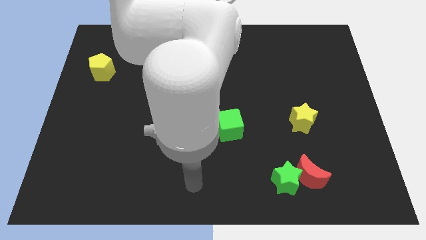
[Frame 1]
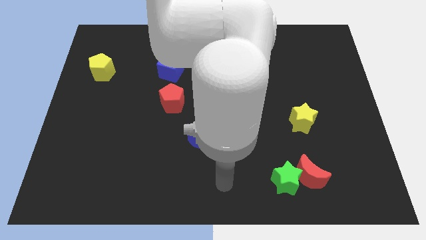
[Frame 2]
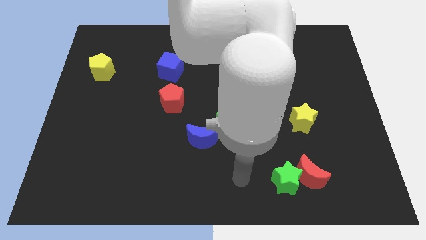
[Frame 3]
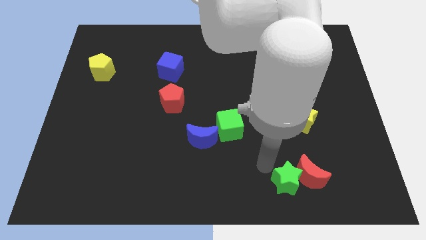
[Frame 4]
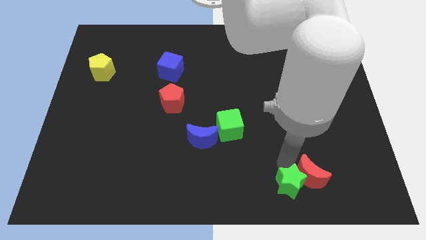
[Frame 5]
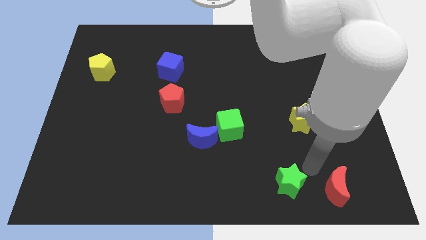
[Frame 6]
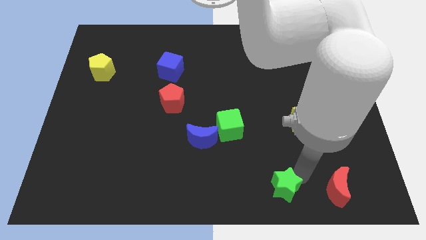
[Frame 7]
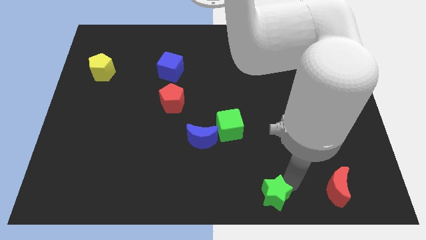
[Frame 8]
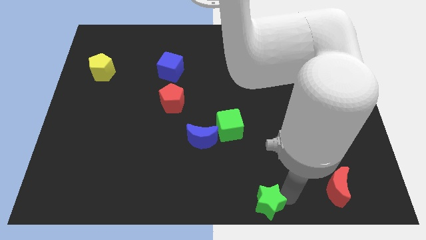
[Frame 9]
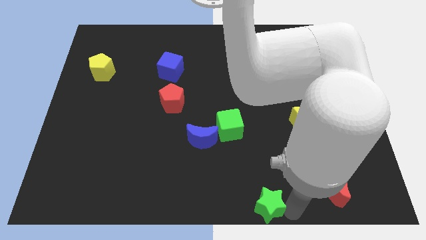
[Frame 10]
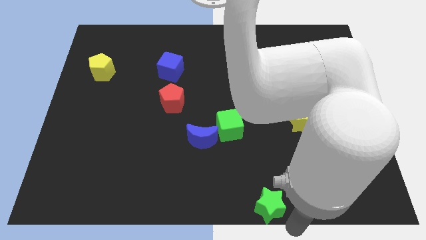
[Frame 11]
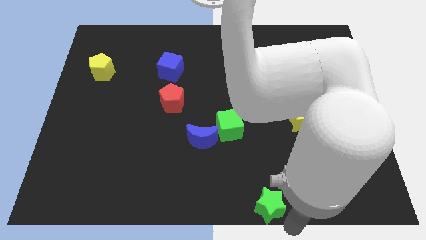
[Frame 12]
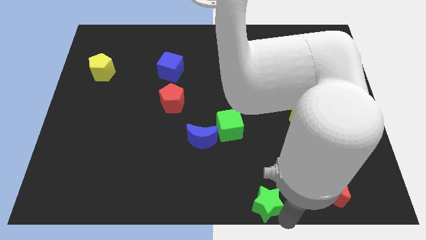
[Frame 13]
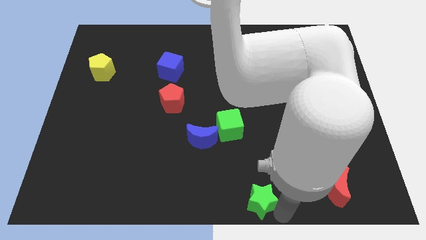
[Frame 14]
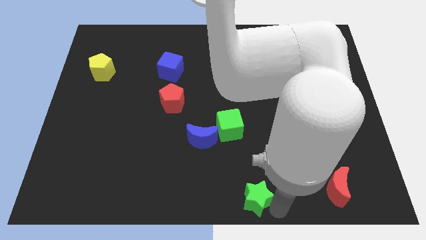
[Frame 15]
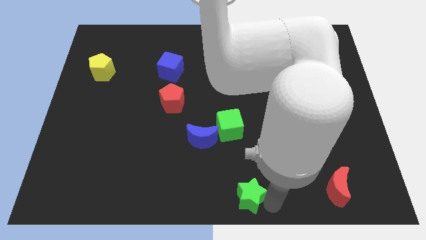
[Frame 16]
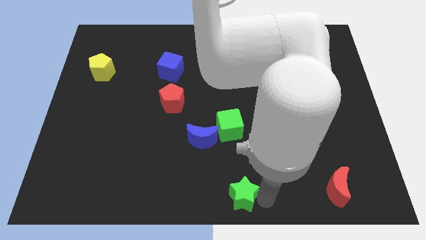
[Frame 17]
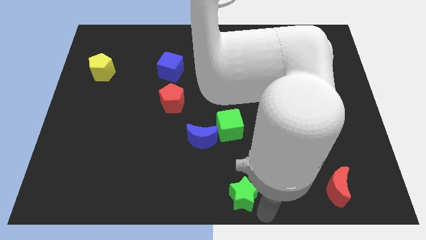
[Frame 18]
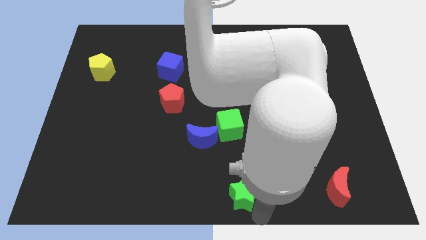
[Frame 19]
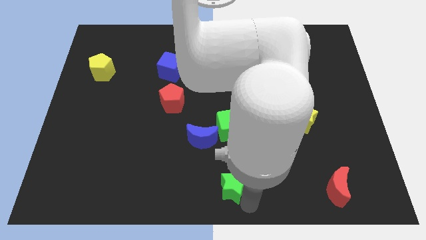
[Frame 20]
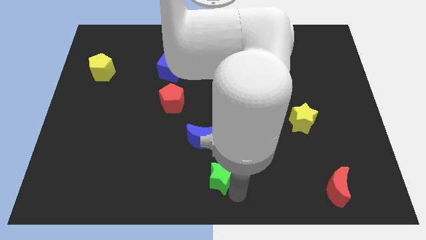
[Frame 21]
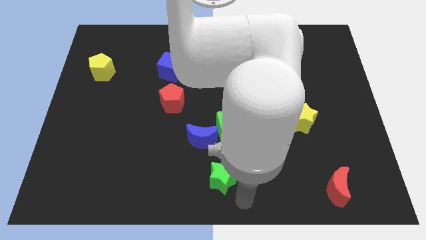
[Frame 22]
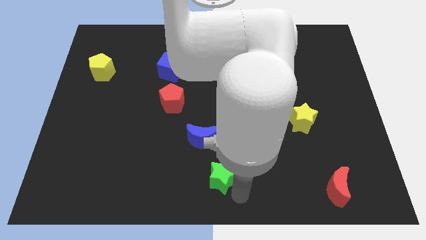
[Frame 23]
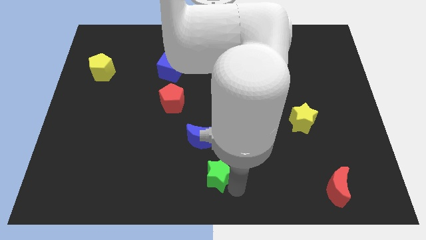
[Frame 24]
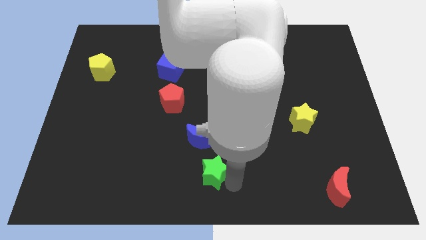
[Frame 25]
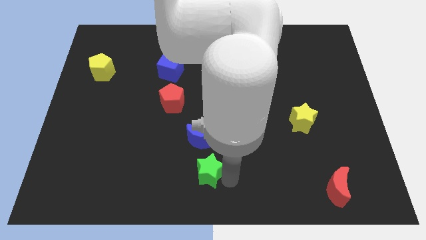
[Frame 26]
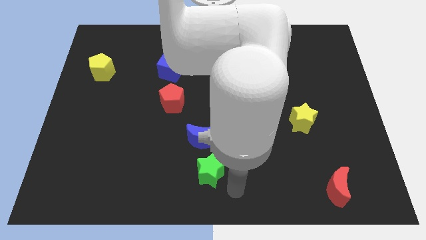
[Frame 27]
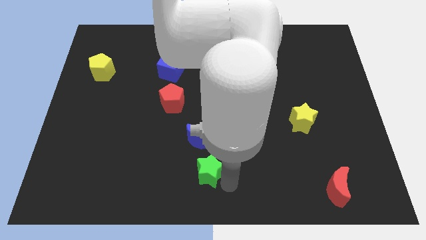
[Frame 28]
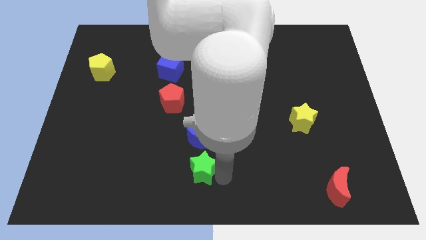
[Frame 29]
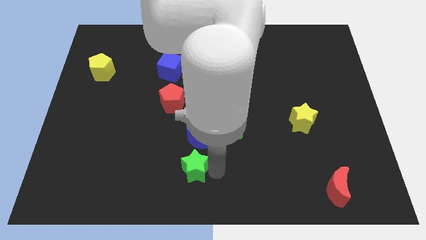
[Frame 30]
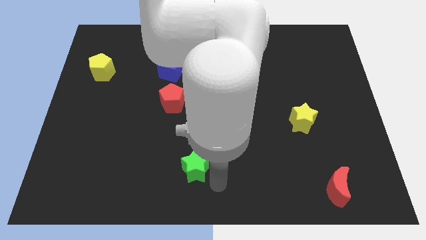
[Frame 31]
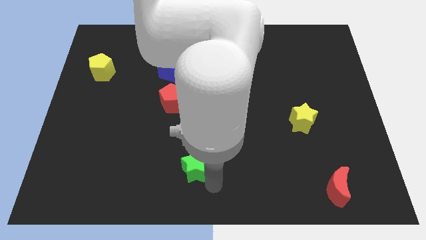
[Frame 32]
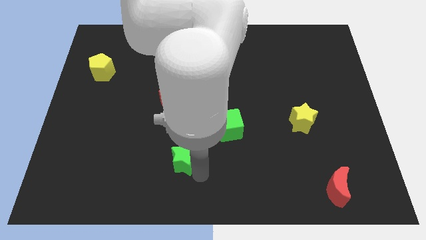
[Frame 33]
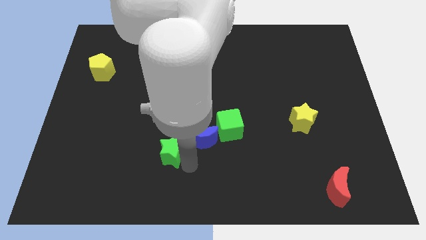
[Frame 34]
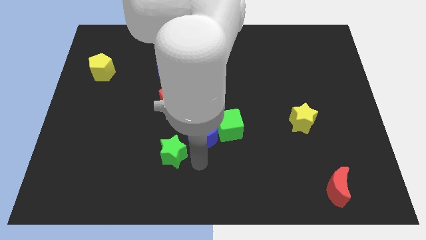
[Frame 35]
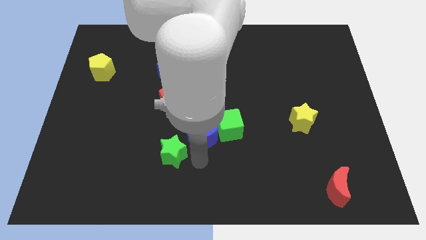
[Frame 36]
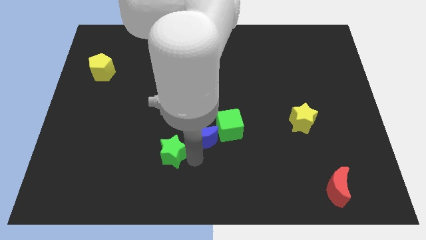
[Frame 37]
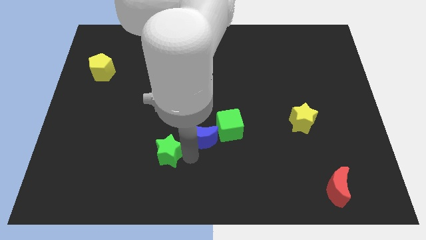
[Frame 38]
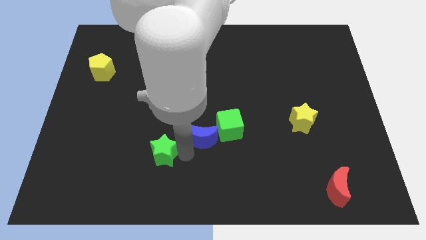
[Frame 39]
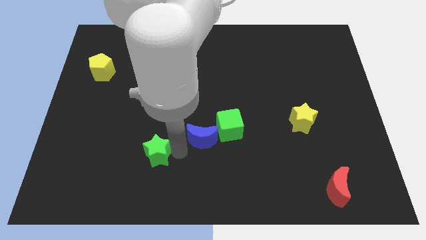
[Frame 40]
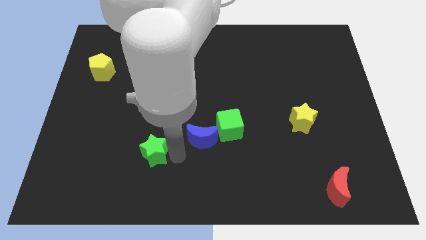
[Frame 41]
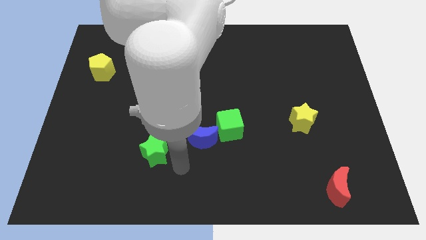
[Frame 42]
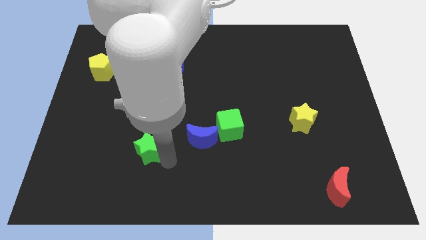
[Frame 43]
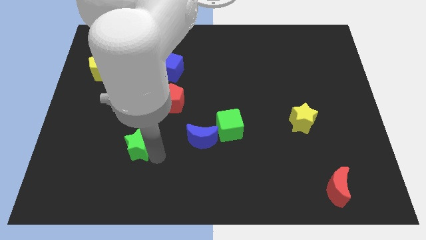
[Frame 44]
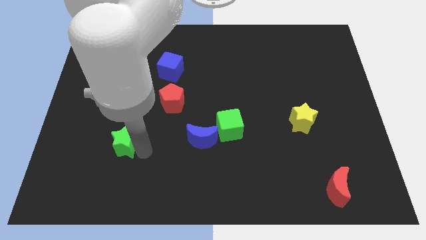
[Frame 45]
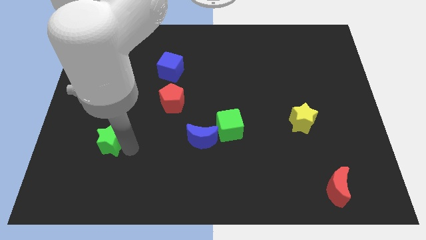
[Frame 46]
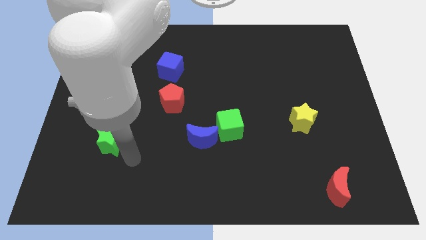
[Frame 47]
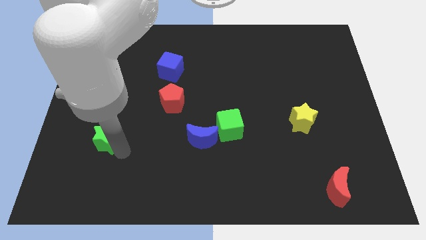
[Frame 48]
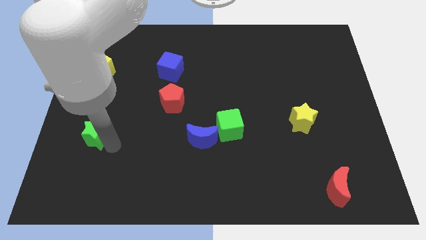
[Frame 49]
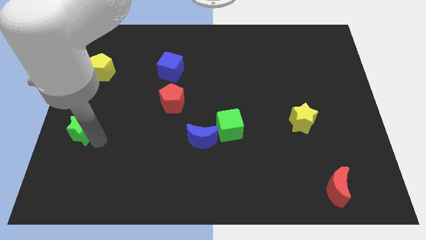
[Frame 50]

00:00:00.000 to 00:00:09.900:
move the green star to the left side

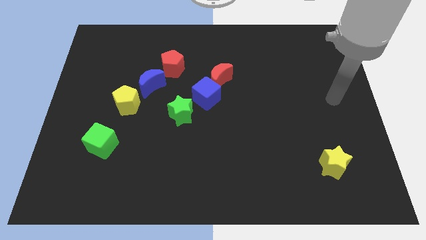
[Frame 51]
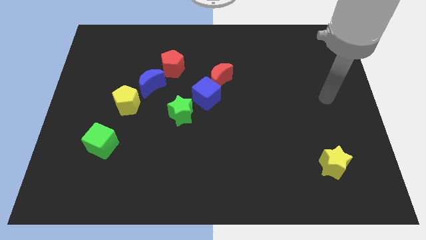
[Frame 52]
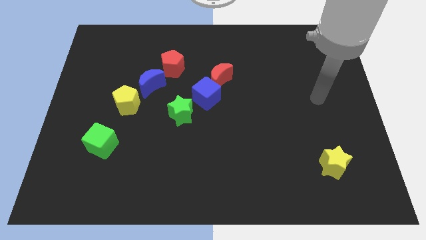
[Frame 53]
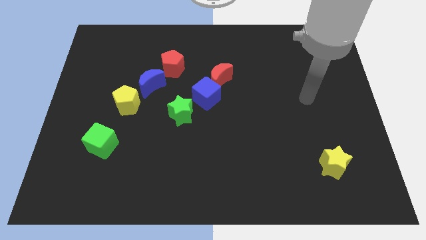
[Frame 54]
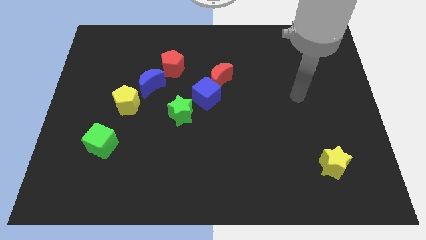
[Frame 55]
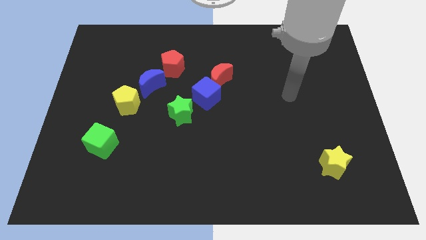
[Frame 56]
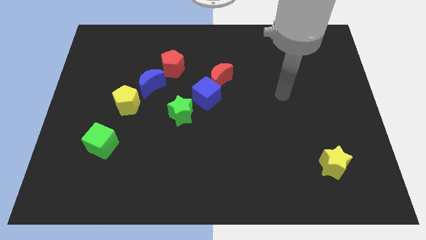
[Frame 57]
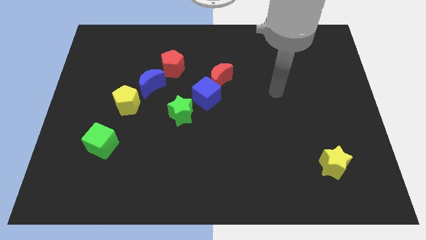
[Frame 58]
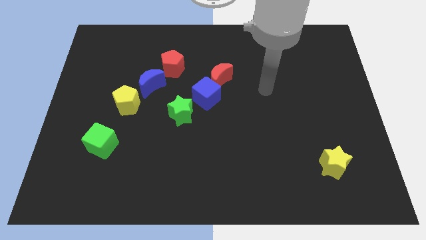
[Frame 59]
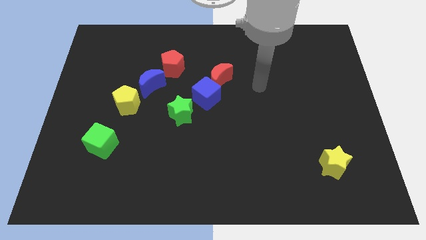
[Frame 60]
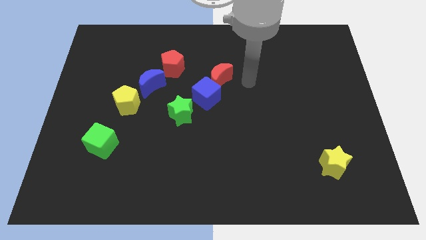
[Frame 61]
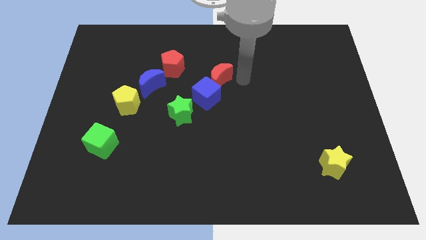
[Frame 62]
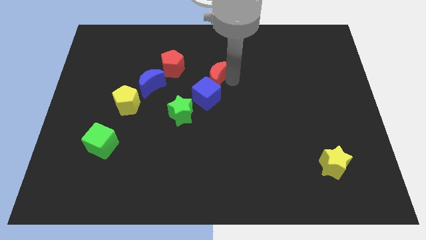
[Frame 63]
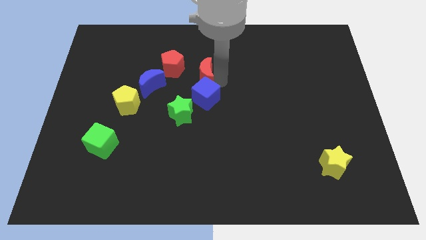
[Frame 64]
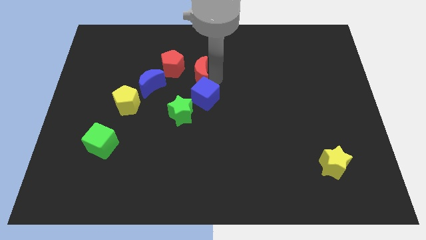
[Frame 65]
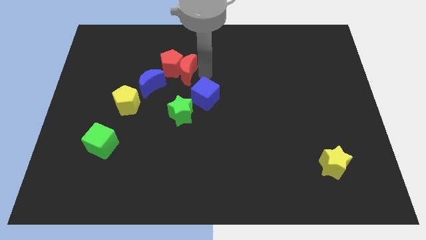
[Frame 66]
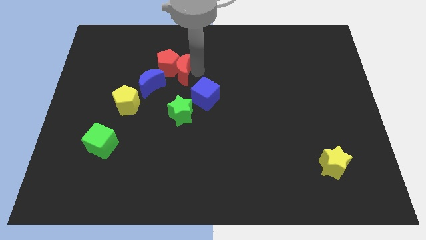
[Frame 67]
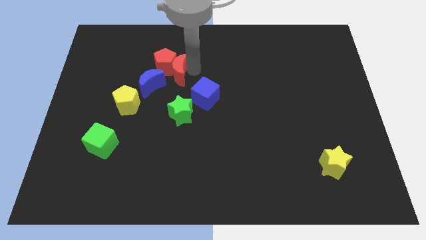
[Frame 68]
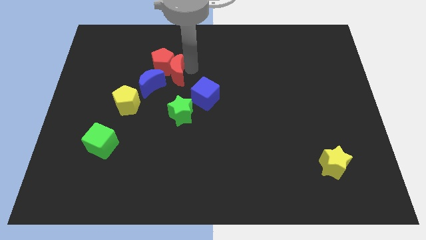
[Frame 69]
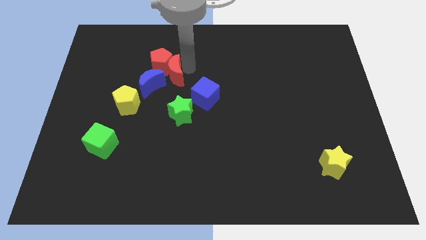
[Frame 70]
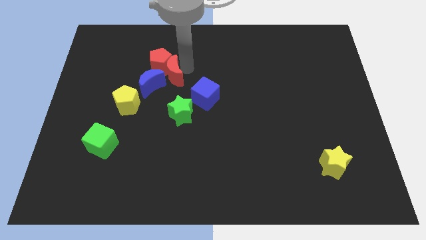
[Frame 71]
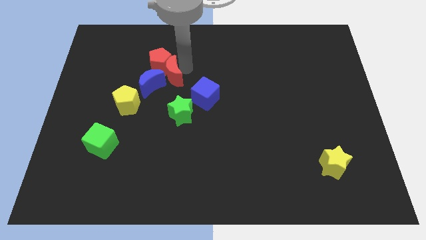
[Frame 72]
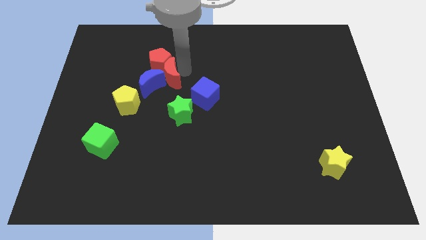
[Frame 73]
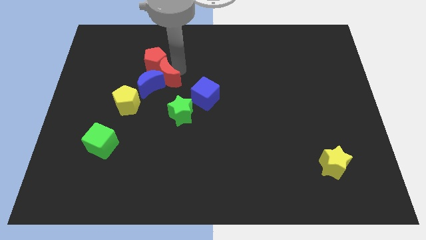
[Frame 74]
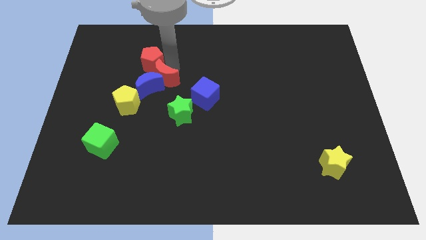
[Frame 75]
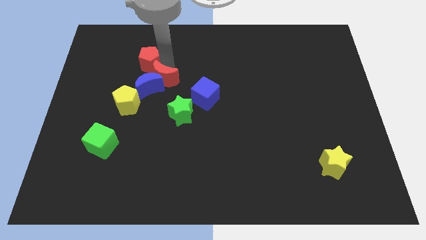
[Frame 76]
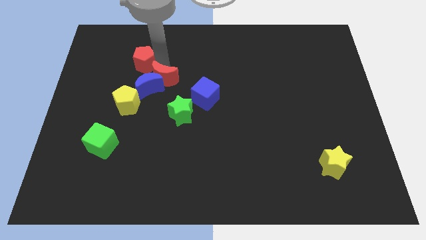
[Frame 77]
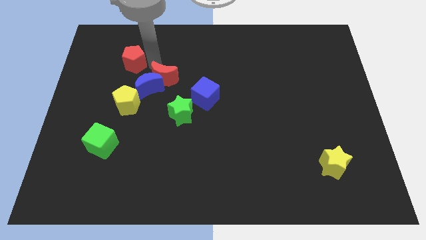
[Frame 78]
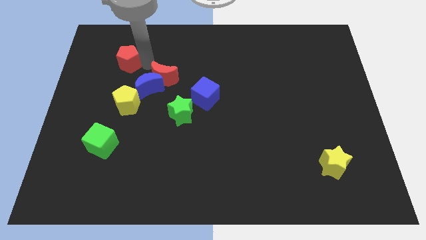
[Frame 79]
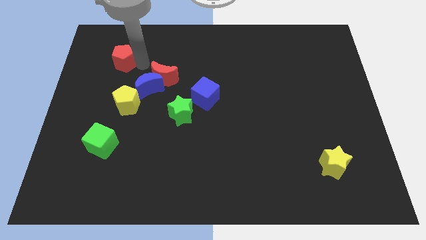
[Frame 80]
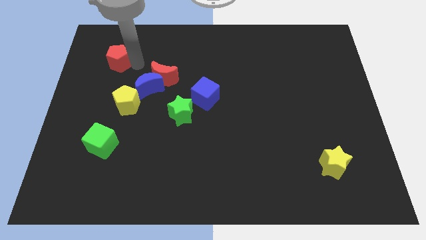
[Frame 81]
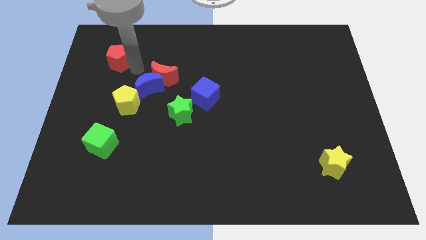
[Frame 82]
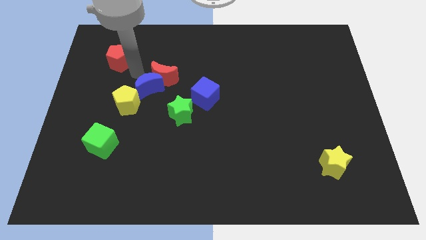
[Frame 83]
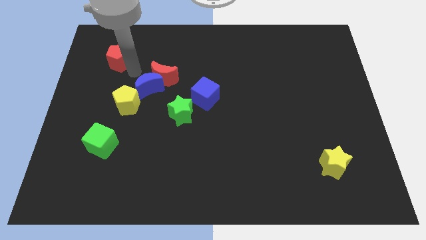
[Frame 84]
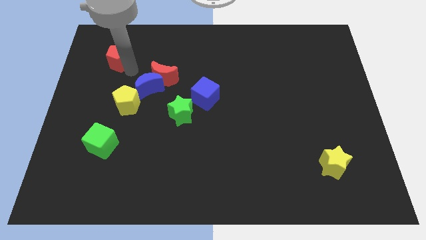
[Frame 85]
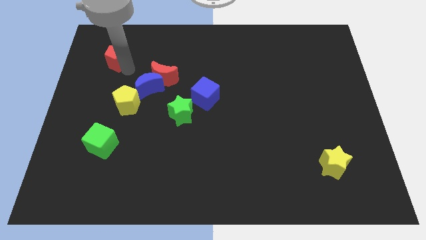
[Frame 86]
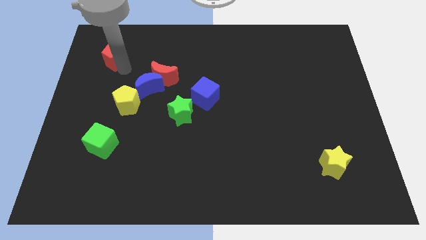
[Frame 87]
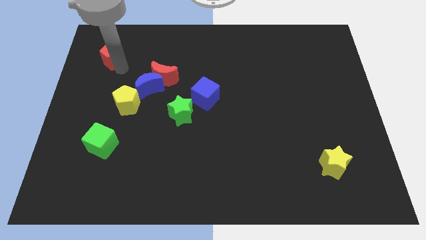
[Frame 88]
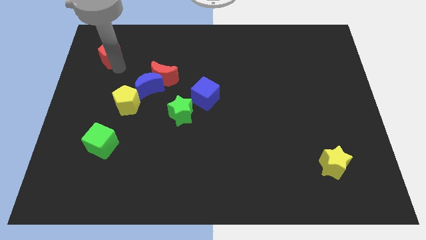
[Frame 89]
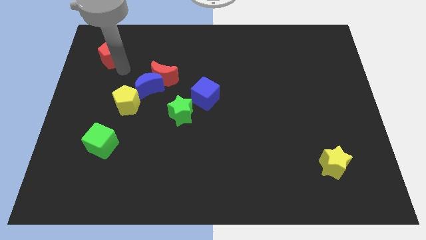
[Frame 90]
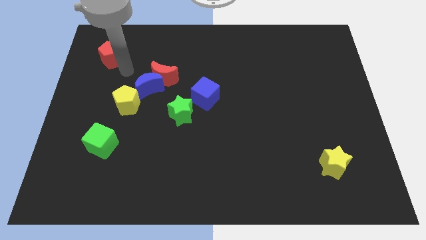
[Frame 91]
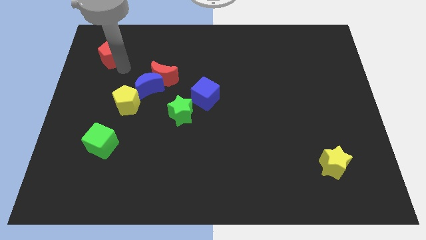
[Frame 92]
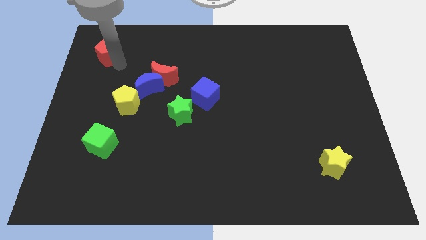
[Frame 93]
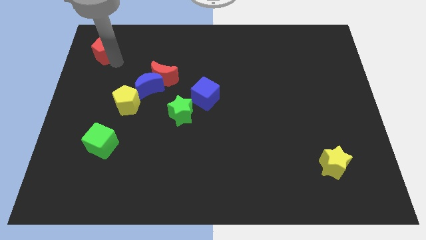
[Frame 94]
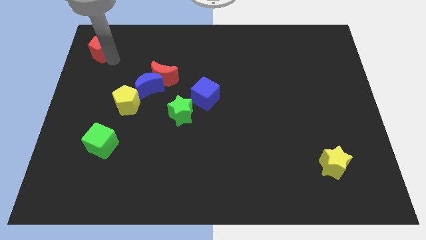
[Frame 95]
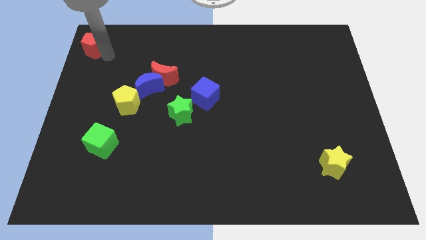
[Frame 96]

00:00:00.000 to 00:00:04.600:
put the red pentagon to the top left
